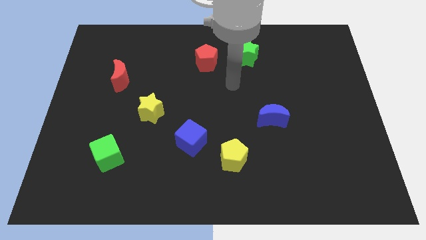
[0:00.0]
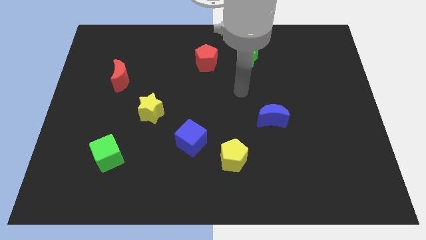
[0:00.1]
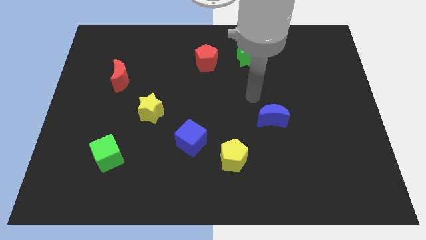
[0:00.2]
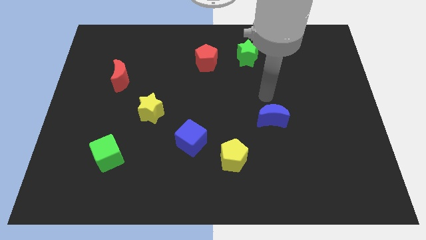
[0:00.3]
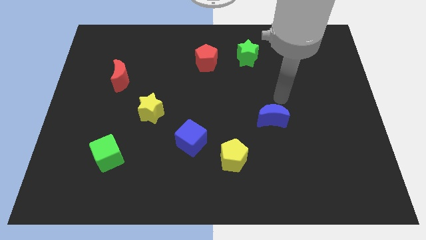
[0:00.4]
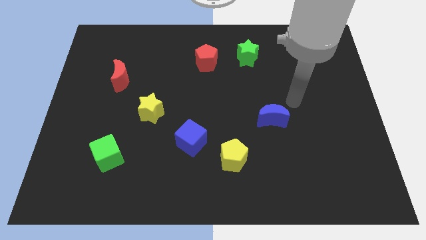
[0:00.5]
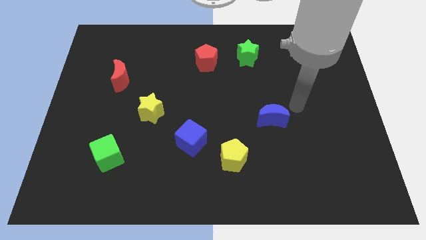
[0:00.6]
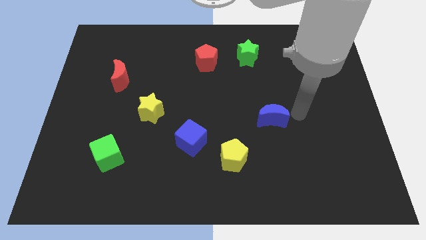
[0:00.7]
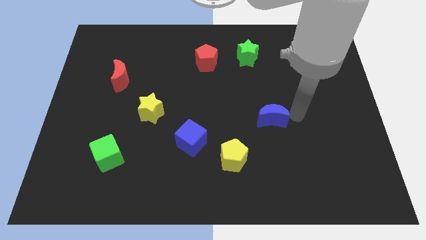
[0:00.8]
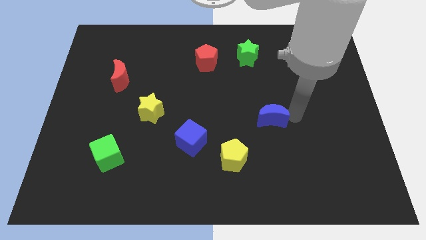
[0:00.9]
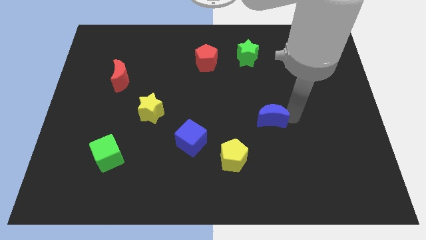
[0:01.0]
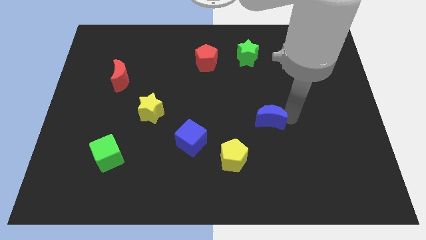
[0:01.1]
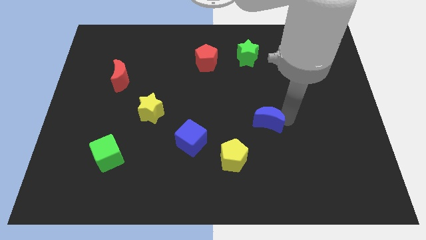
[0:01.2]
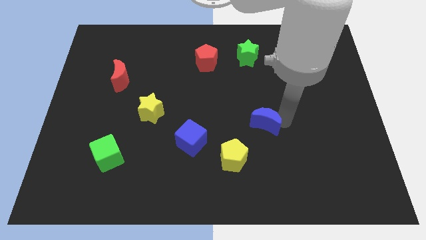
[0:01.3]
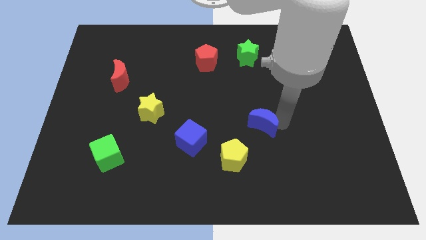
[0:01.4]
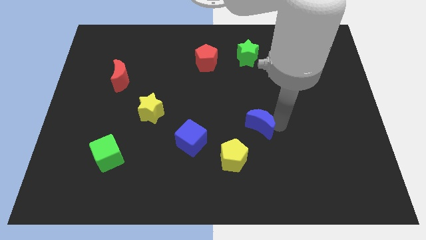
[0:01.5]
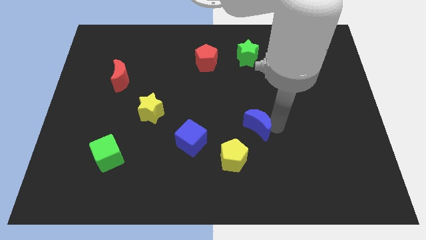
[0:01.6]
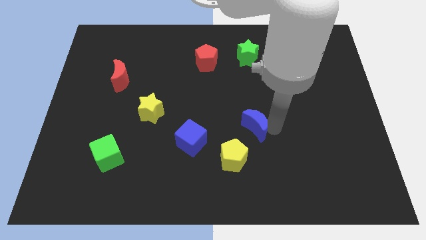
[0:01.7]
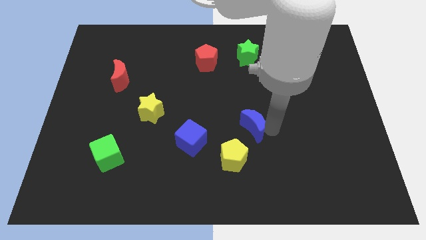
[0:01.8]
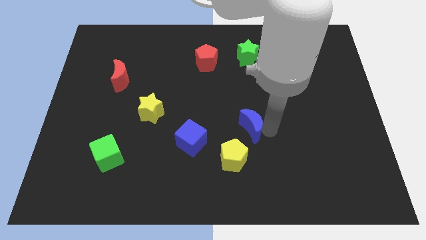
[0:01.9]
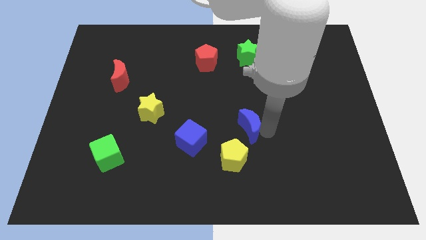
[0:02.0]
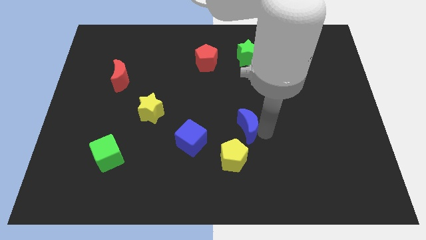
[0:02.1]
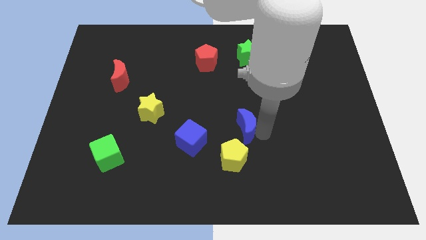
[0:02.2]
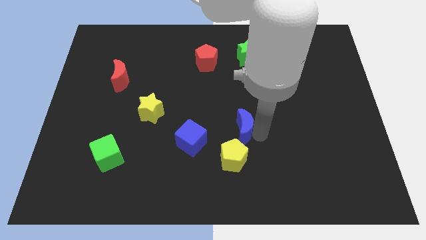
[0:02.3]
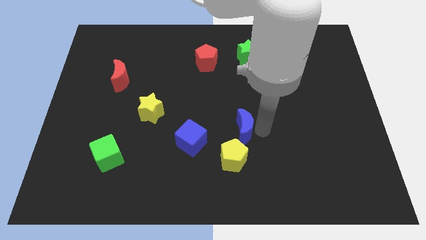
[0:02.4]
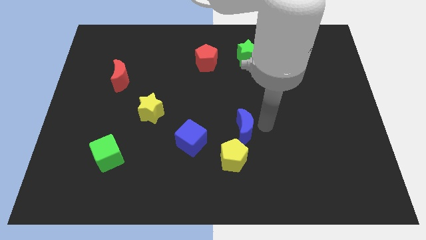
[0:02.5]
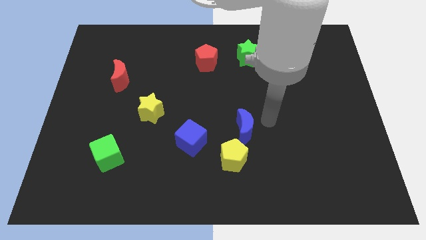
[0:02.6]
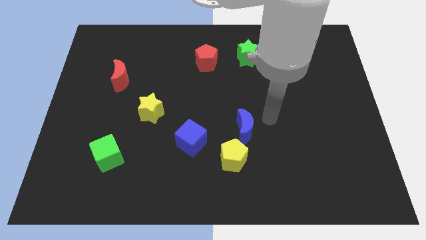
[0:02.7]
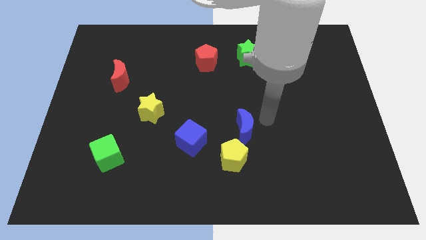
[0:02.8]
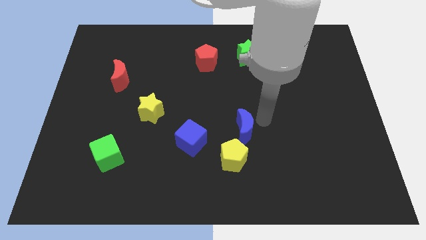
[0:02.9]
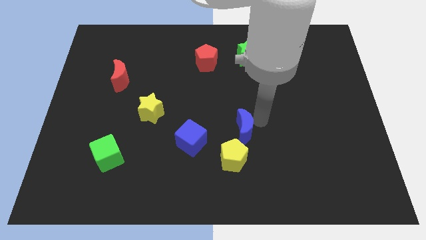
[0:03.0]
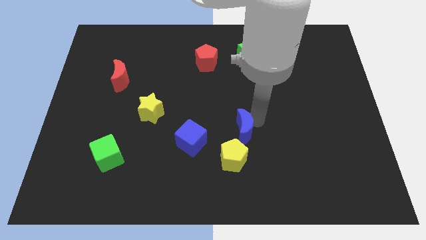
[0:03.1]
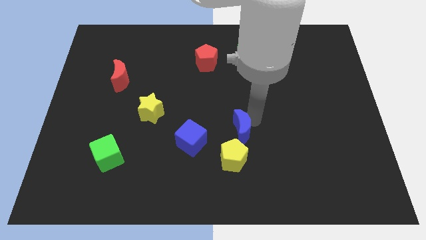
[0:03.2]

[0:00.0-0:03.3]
slide the blue moon diagonally down and left a little bit

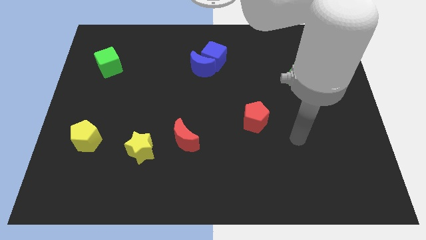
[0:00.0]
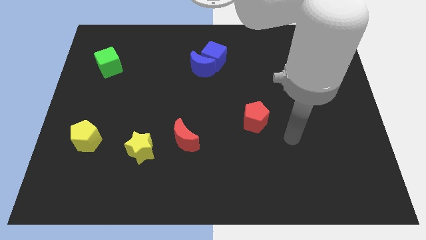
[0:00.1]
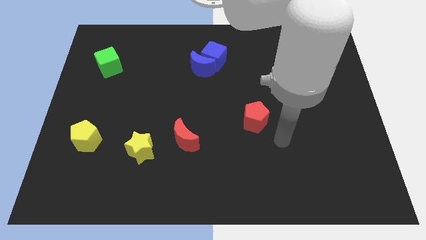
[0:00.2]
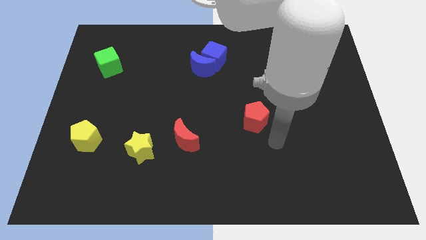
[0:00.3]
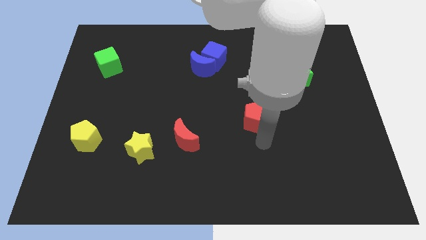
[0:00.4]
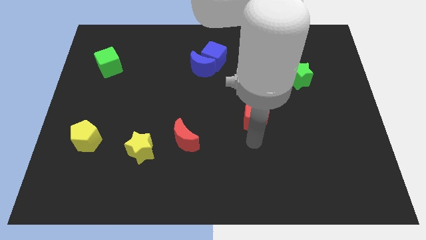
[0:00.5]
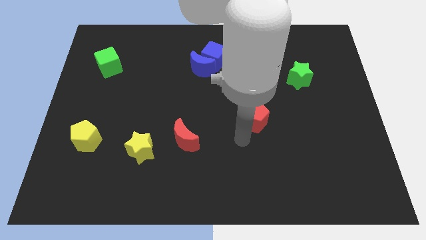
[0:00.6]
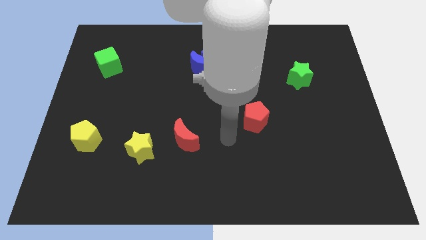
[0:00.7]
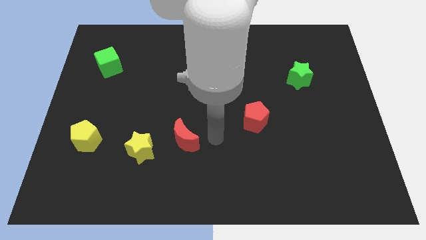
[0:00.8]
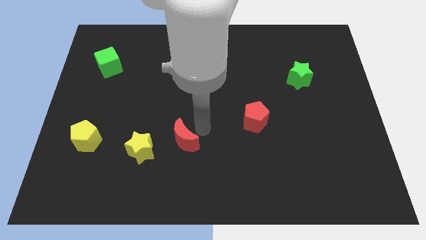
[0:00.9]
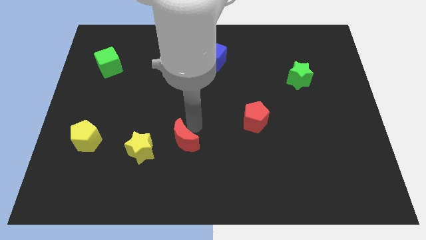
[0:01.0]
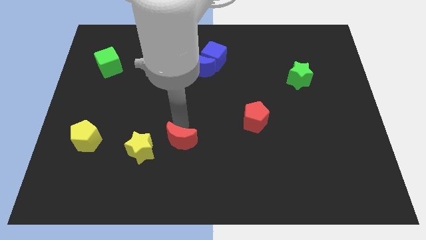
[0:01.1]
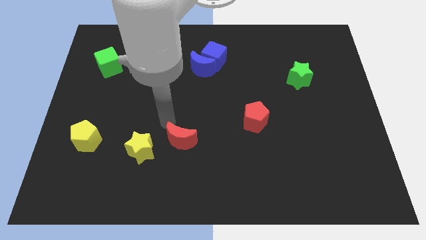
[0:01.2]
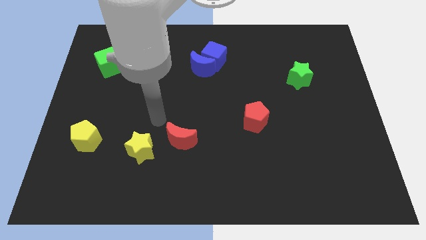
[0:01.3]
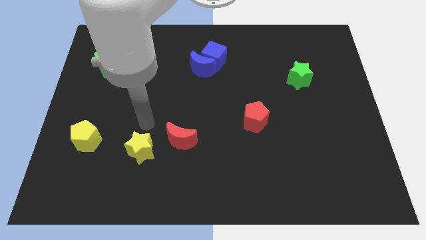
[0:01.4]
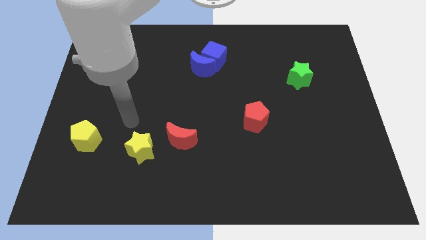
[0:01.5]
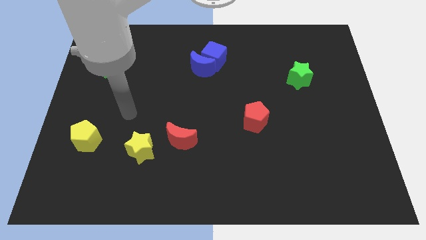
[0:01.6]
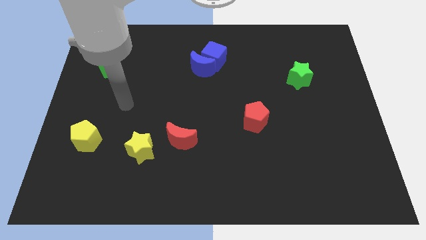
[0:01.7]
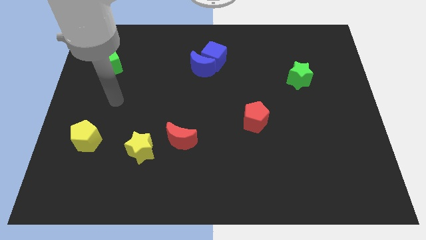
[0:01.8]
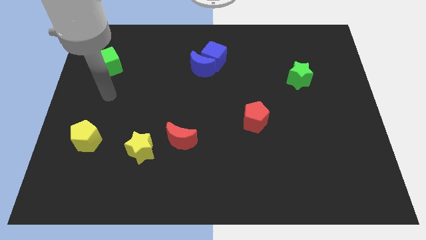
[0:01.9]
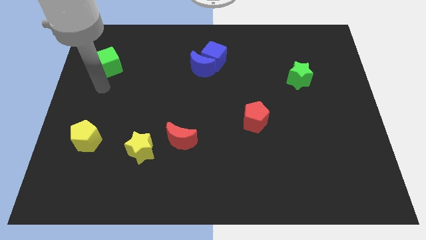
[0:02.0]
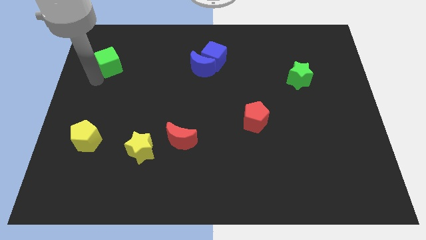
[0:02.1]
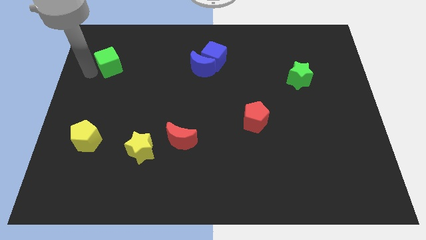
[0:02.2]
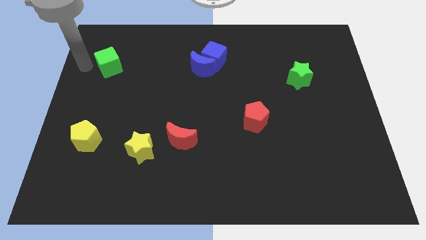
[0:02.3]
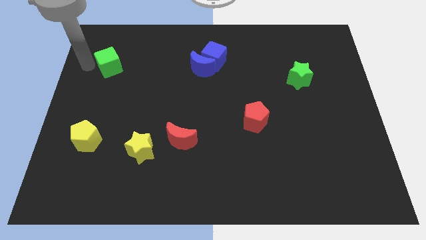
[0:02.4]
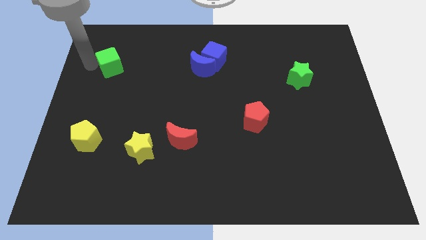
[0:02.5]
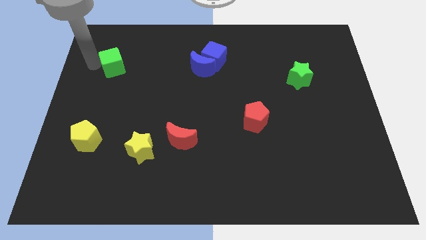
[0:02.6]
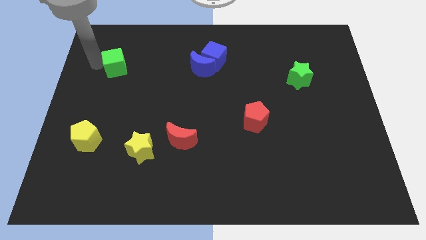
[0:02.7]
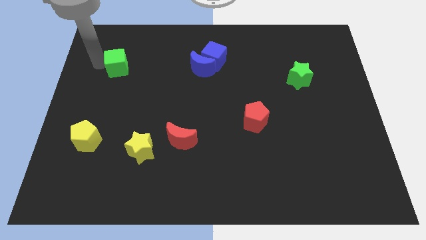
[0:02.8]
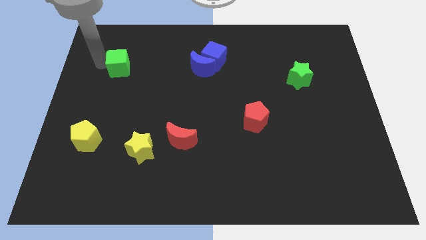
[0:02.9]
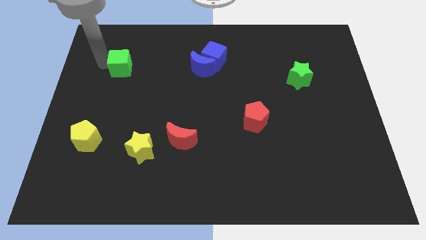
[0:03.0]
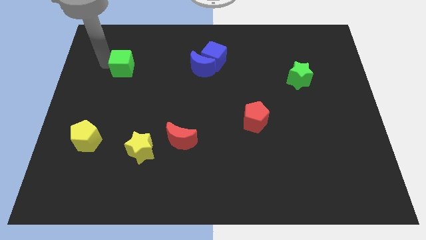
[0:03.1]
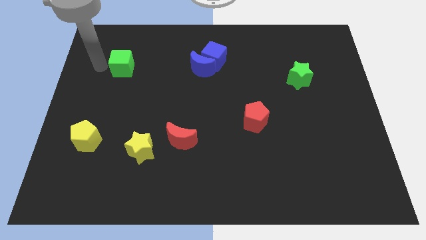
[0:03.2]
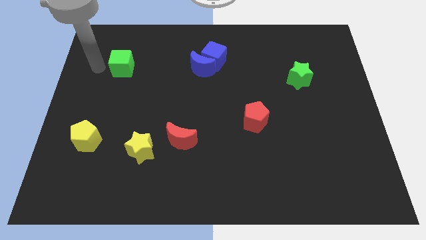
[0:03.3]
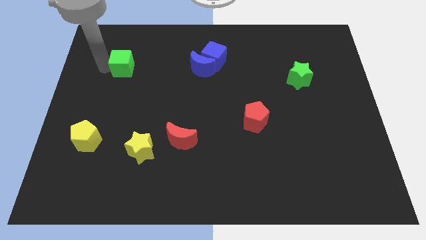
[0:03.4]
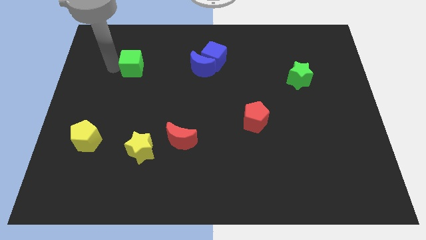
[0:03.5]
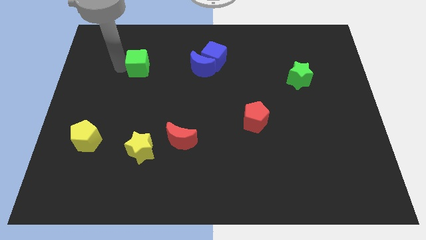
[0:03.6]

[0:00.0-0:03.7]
move the green cube to the right a little

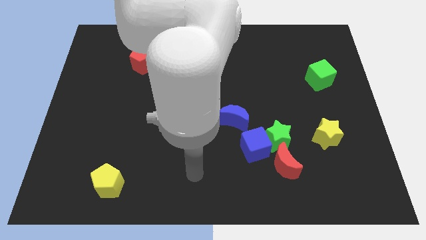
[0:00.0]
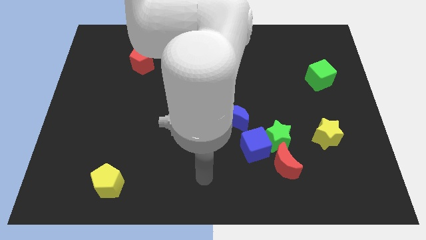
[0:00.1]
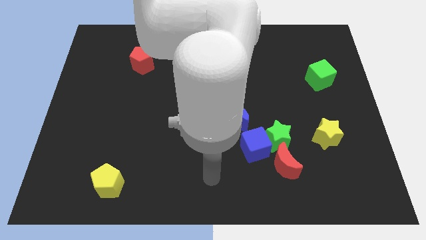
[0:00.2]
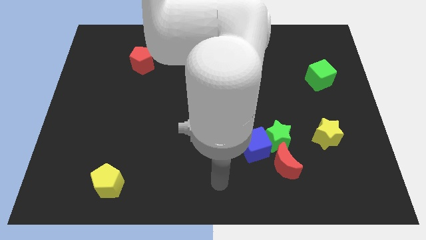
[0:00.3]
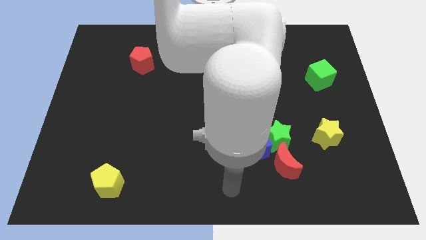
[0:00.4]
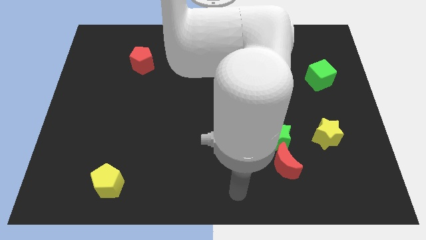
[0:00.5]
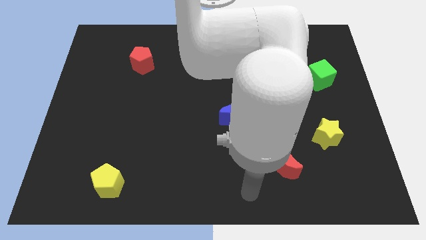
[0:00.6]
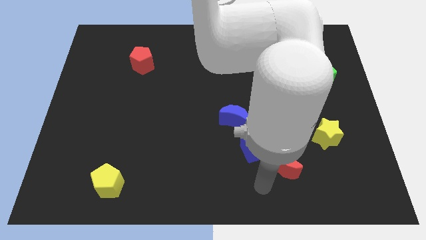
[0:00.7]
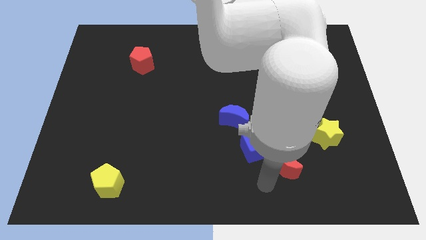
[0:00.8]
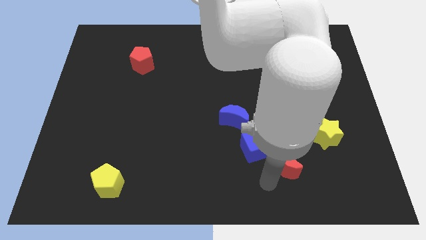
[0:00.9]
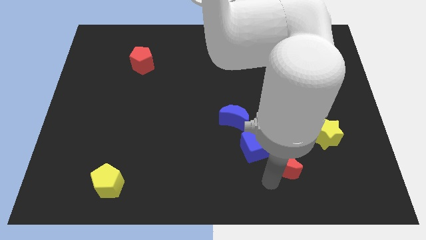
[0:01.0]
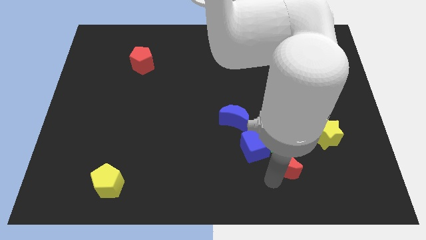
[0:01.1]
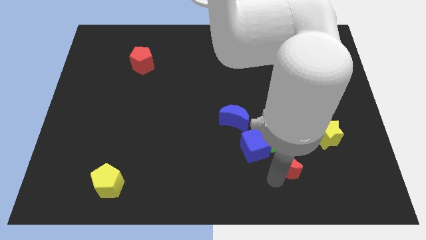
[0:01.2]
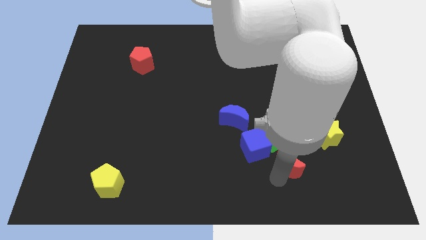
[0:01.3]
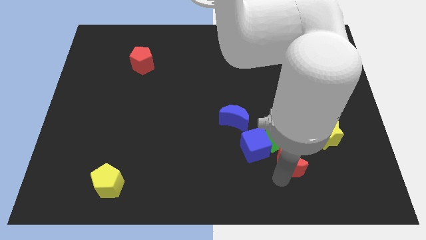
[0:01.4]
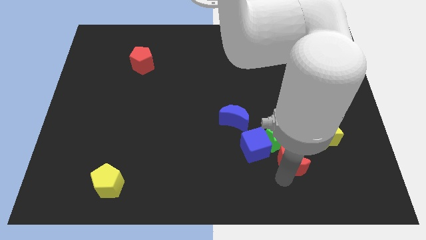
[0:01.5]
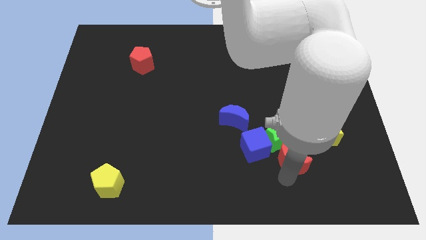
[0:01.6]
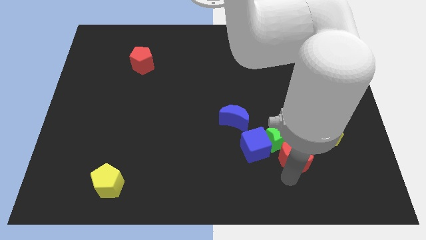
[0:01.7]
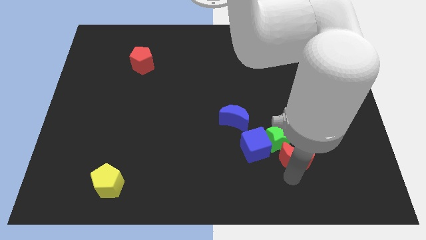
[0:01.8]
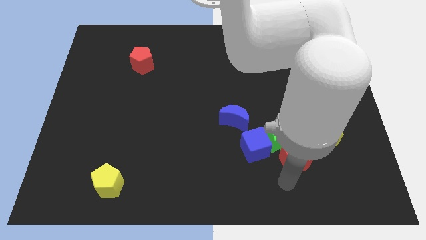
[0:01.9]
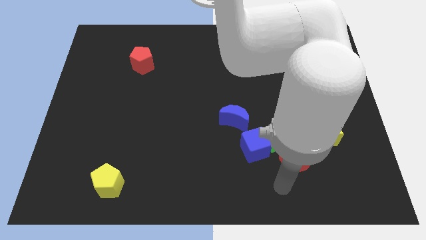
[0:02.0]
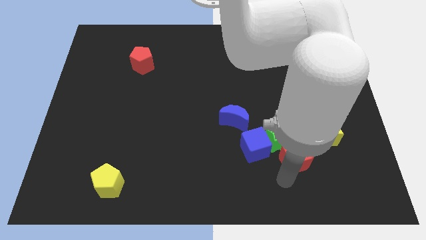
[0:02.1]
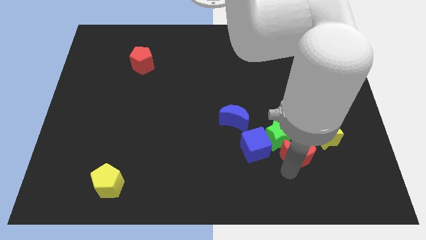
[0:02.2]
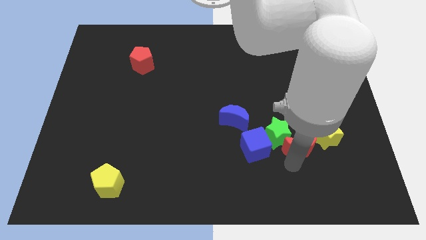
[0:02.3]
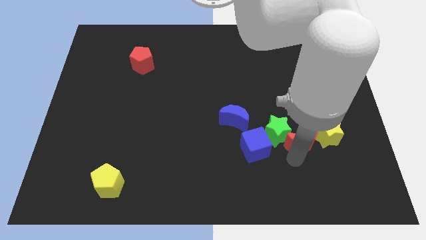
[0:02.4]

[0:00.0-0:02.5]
slide the red moon upwards and to the right diagonally a little
